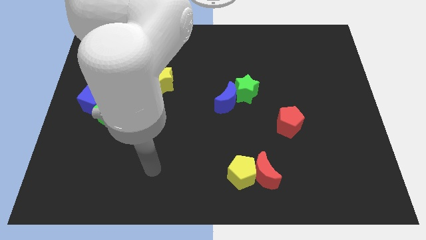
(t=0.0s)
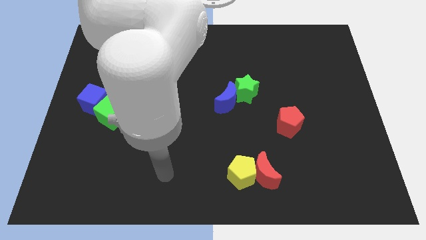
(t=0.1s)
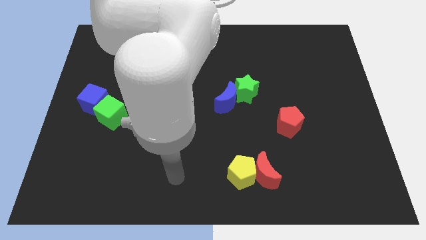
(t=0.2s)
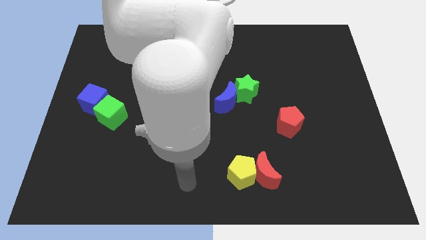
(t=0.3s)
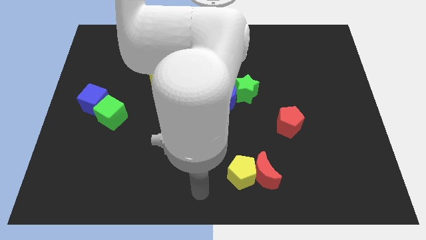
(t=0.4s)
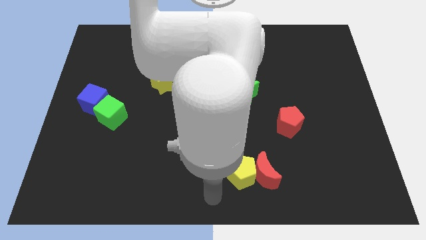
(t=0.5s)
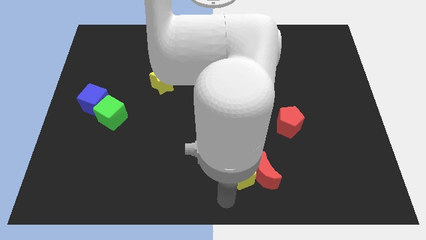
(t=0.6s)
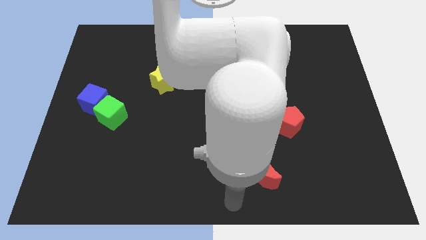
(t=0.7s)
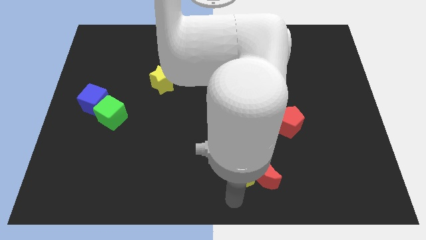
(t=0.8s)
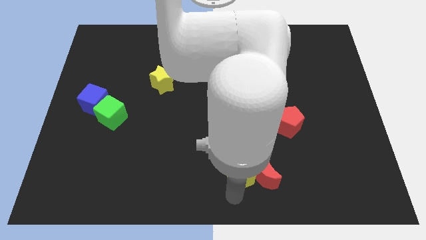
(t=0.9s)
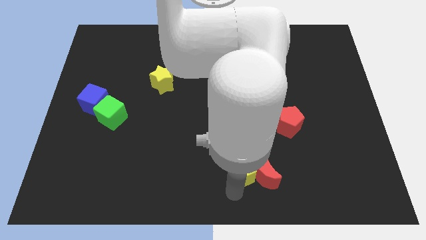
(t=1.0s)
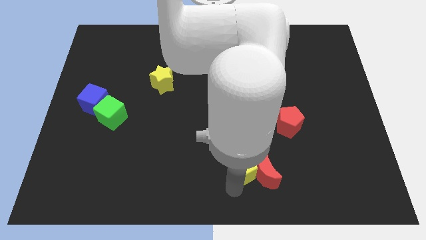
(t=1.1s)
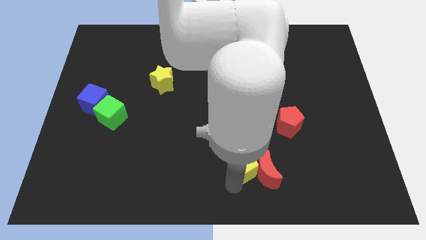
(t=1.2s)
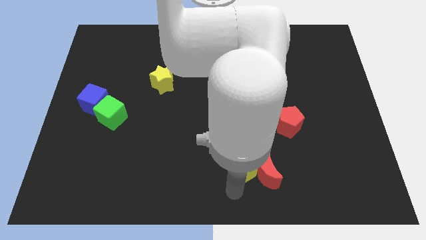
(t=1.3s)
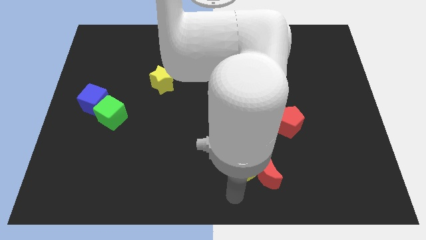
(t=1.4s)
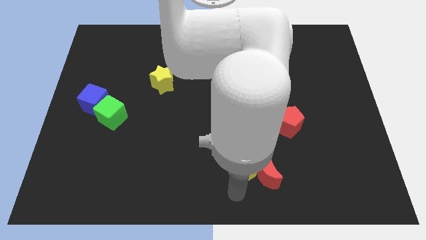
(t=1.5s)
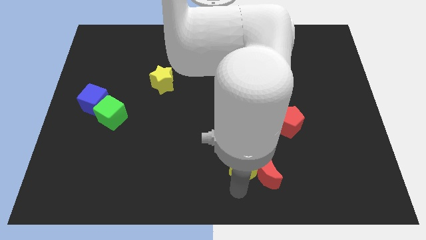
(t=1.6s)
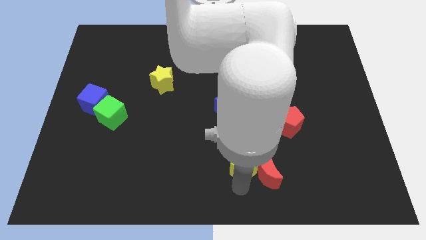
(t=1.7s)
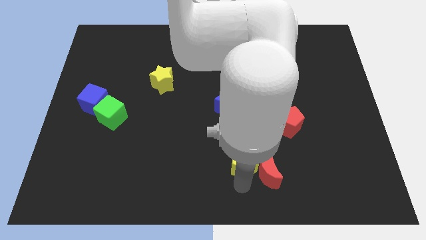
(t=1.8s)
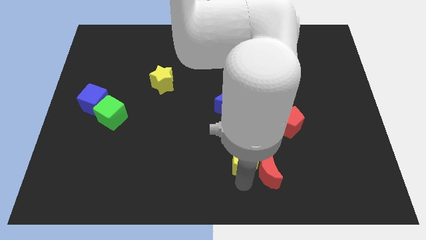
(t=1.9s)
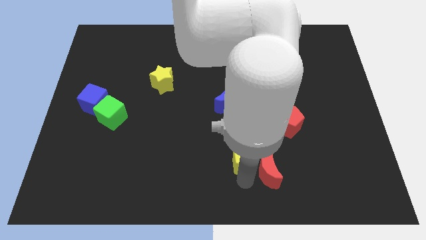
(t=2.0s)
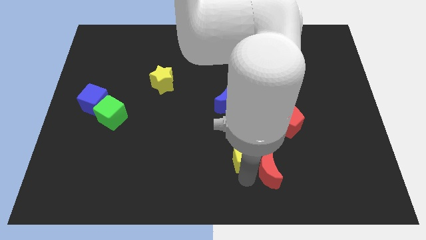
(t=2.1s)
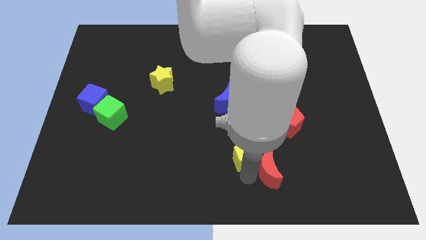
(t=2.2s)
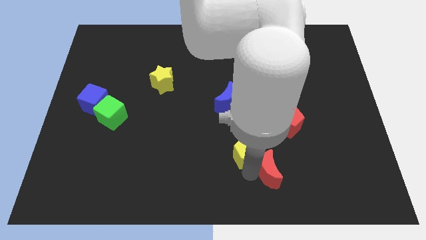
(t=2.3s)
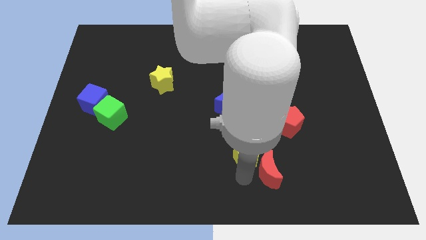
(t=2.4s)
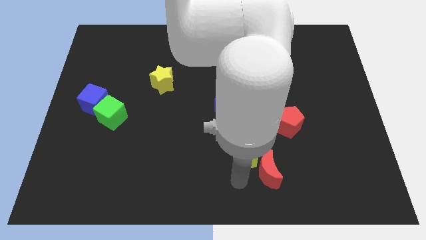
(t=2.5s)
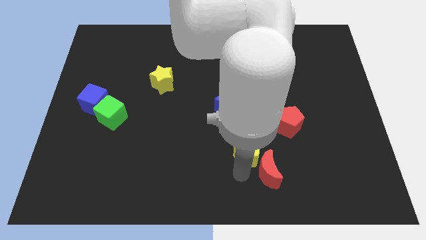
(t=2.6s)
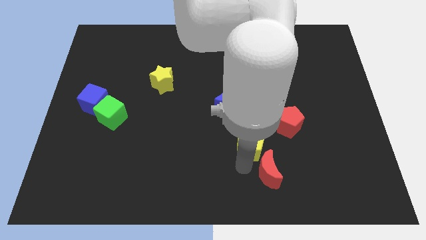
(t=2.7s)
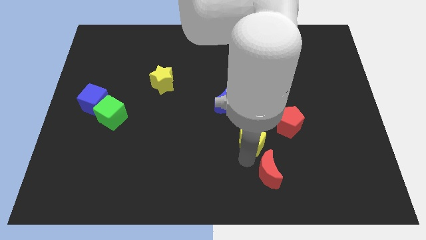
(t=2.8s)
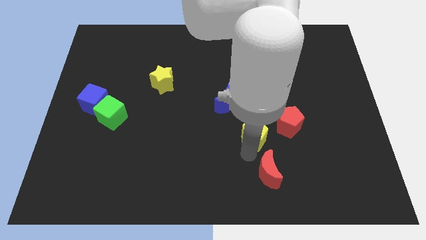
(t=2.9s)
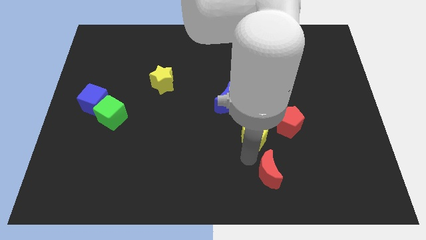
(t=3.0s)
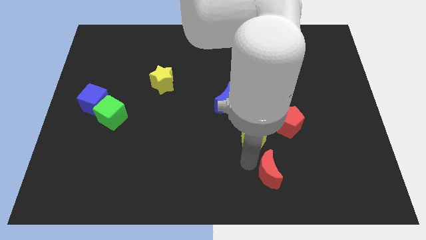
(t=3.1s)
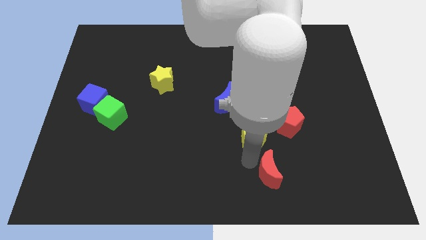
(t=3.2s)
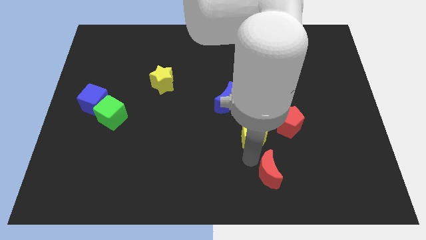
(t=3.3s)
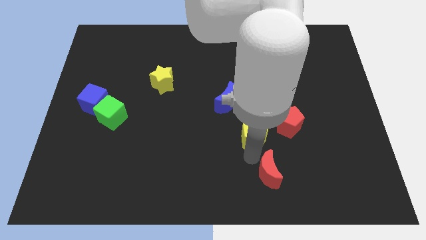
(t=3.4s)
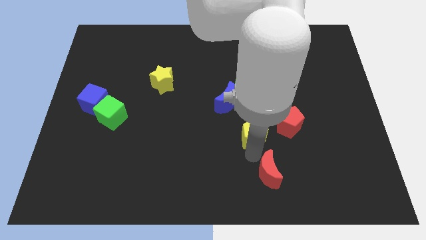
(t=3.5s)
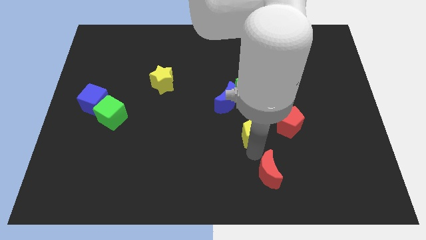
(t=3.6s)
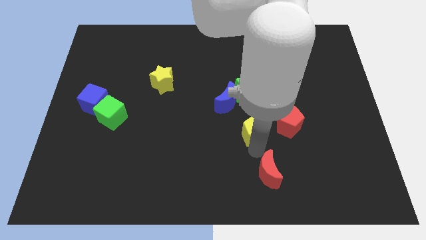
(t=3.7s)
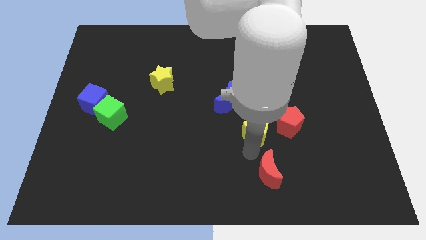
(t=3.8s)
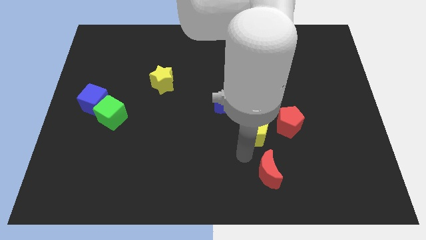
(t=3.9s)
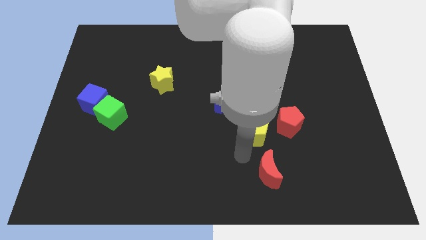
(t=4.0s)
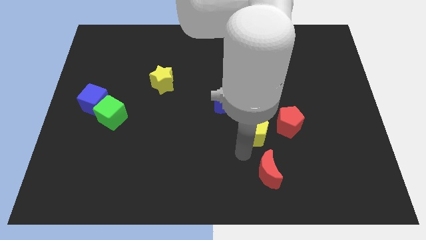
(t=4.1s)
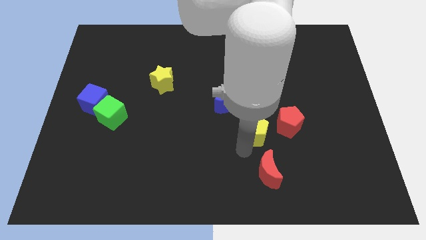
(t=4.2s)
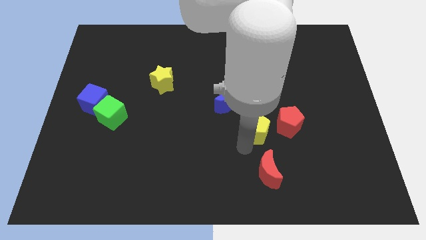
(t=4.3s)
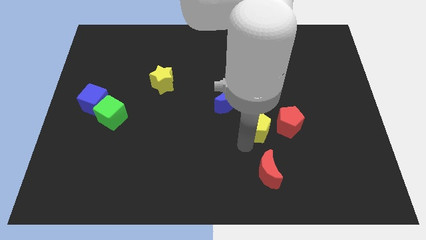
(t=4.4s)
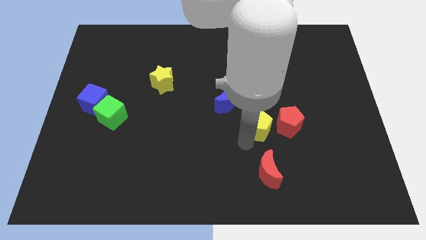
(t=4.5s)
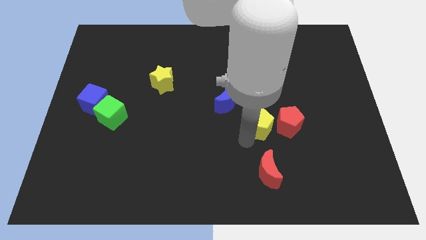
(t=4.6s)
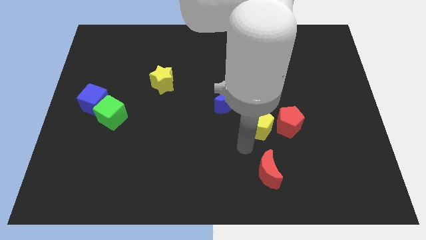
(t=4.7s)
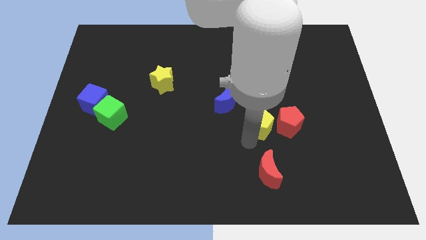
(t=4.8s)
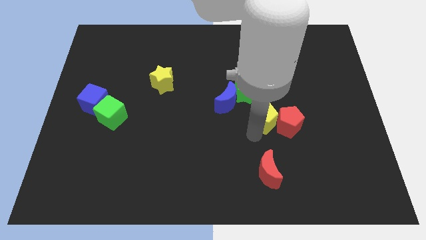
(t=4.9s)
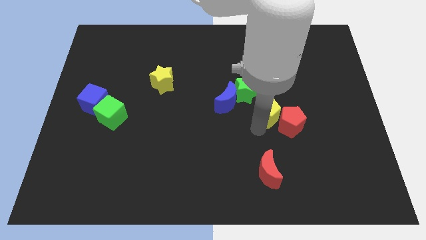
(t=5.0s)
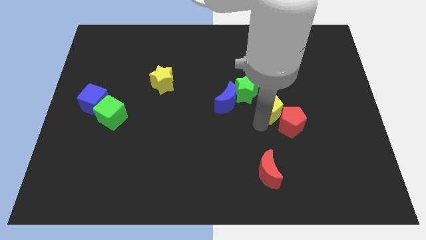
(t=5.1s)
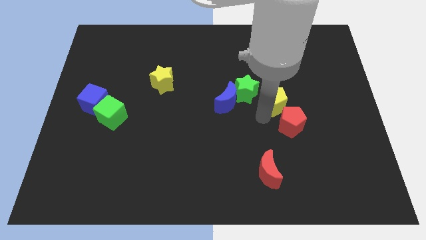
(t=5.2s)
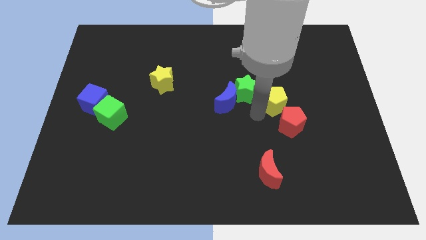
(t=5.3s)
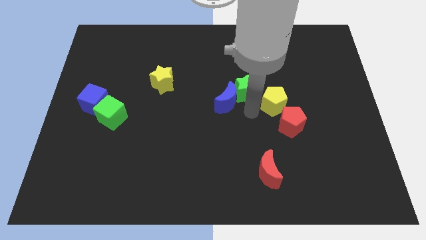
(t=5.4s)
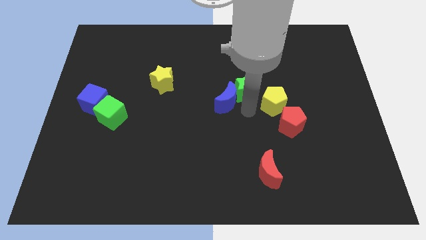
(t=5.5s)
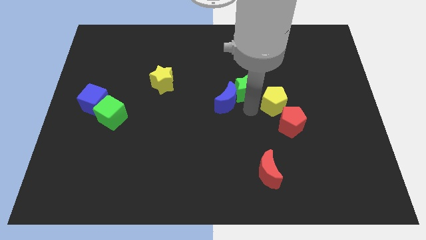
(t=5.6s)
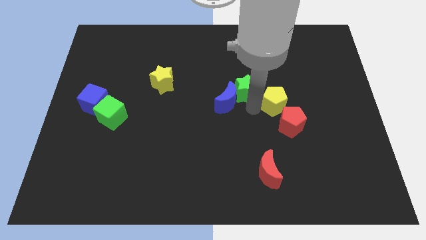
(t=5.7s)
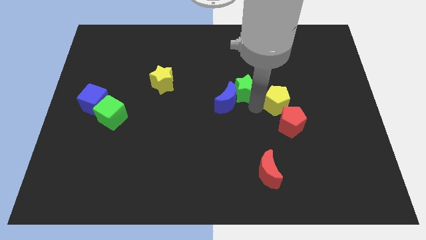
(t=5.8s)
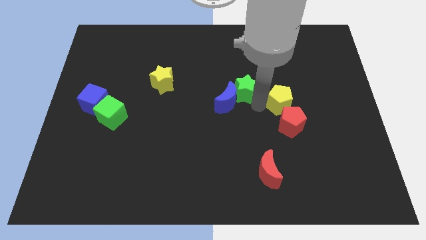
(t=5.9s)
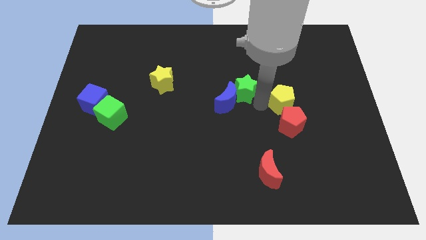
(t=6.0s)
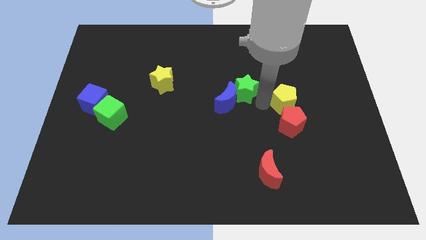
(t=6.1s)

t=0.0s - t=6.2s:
slide the yellow pentagon up and right

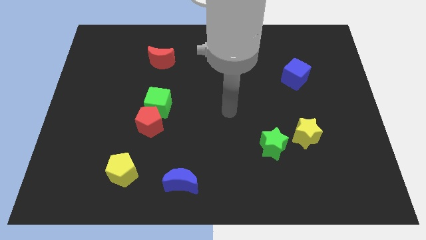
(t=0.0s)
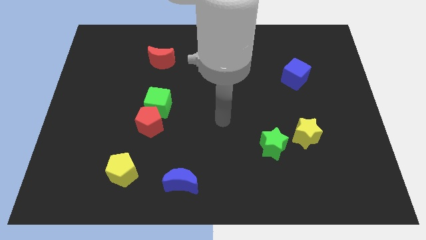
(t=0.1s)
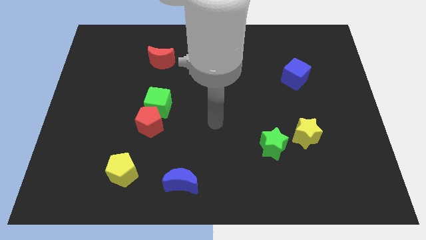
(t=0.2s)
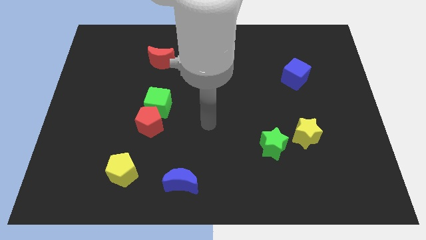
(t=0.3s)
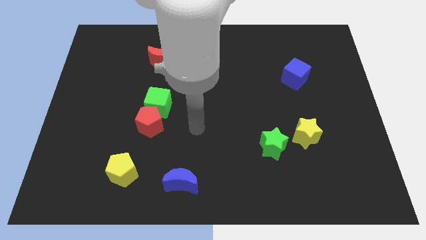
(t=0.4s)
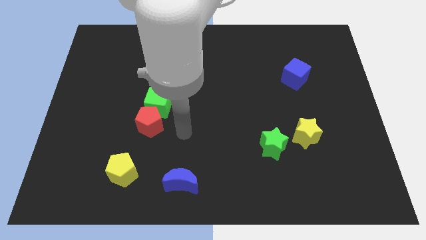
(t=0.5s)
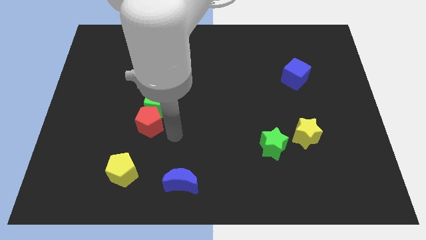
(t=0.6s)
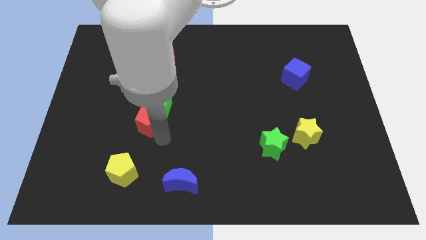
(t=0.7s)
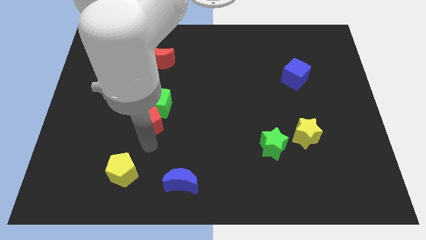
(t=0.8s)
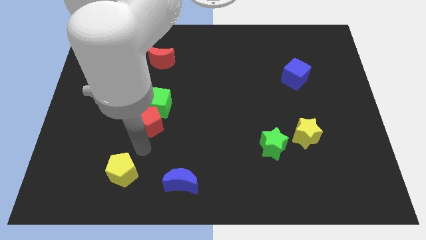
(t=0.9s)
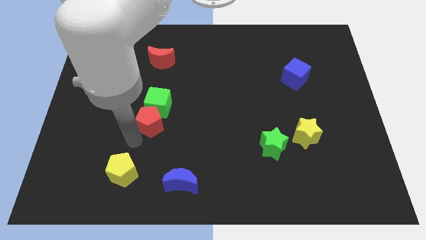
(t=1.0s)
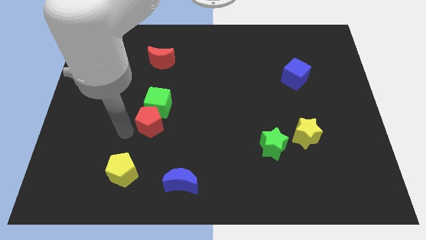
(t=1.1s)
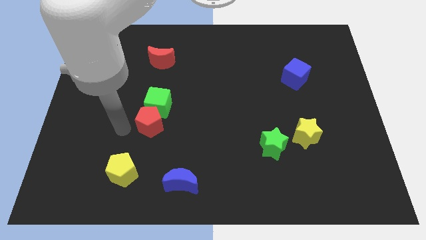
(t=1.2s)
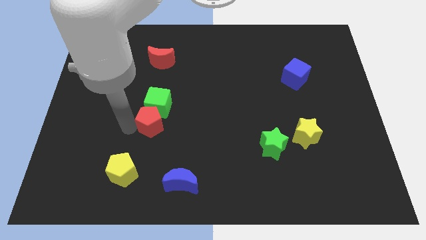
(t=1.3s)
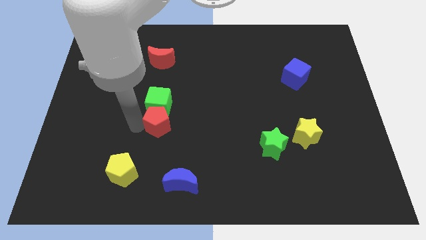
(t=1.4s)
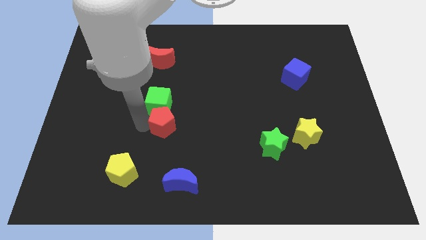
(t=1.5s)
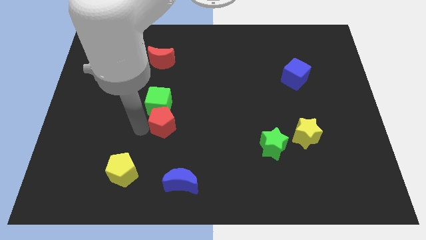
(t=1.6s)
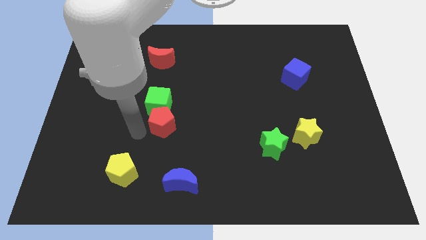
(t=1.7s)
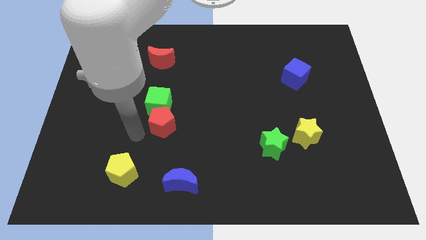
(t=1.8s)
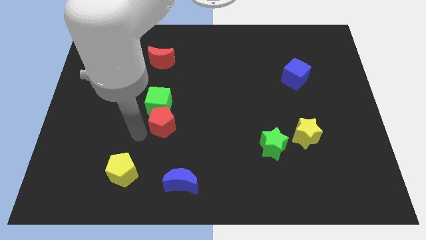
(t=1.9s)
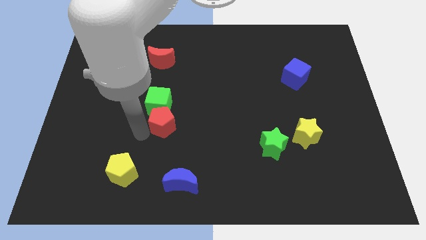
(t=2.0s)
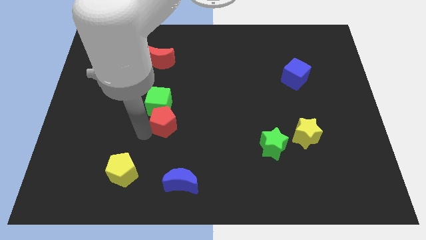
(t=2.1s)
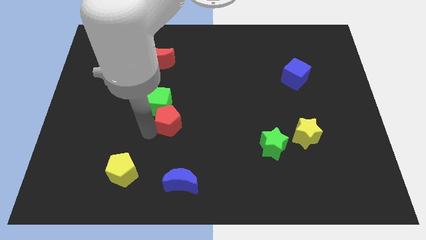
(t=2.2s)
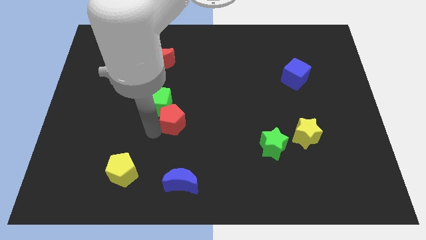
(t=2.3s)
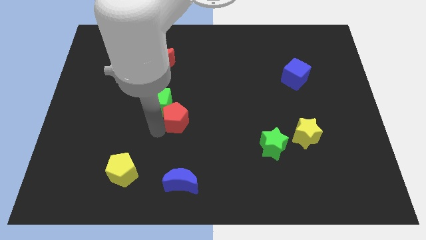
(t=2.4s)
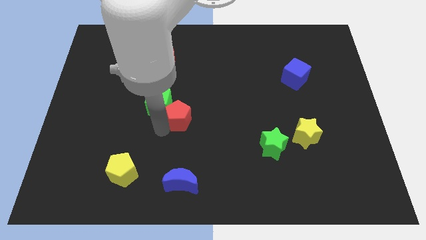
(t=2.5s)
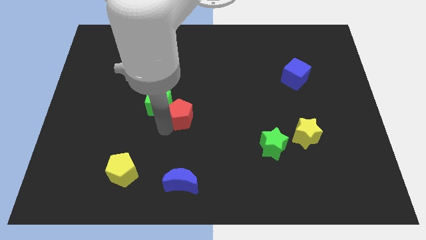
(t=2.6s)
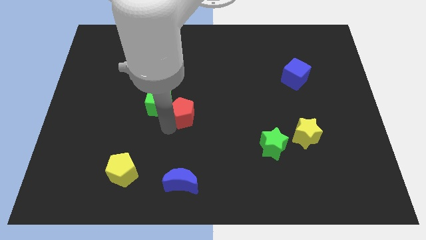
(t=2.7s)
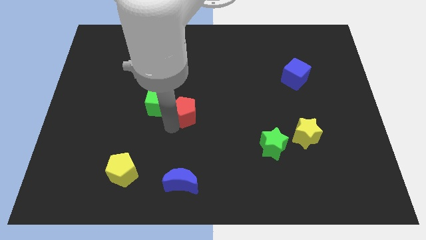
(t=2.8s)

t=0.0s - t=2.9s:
push the red pentagon a bit upwards and right
